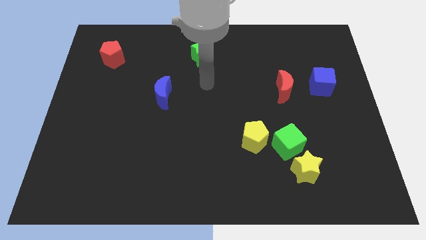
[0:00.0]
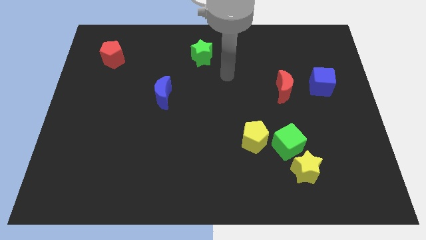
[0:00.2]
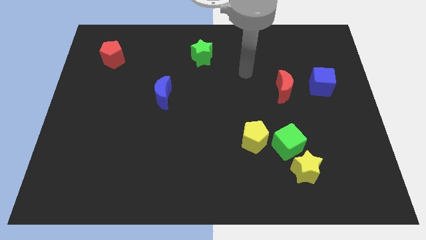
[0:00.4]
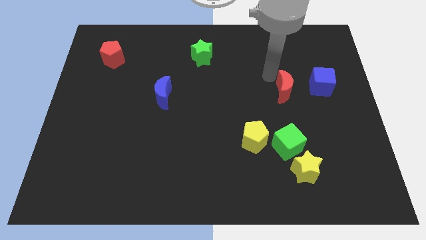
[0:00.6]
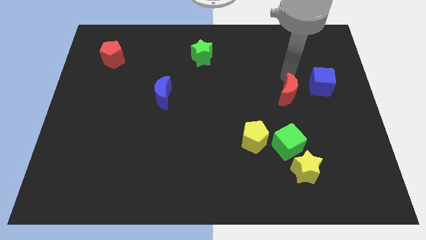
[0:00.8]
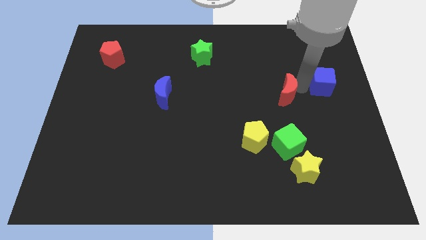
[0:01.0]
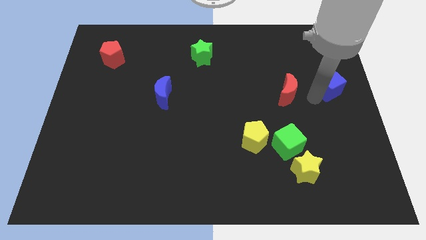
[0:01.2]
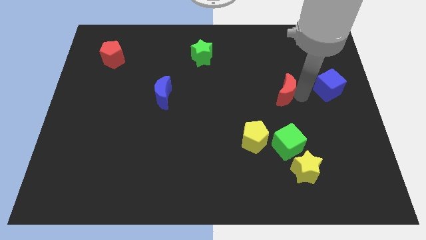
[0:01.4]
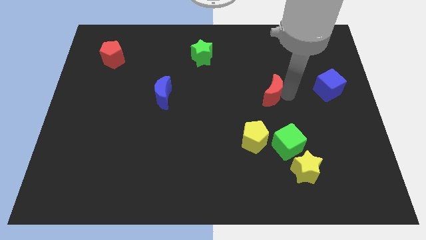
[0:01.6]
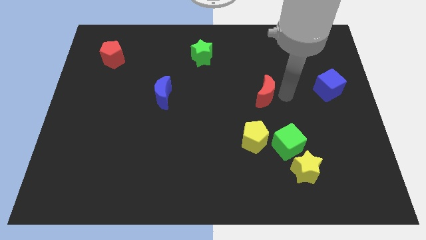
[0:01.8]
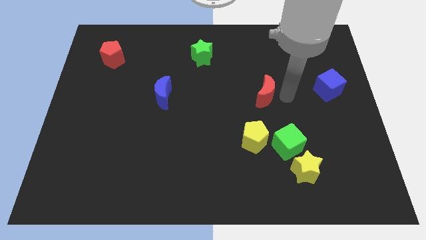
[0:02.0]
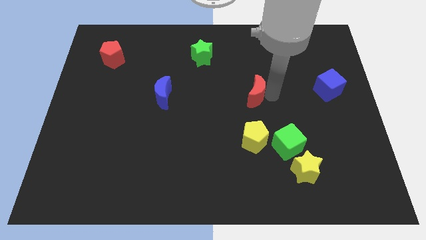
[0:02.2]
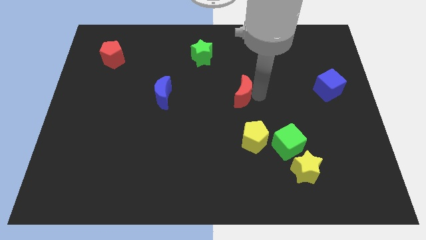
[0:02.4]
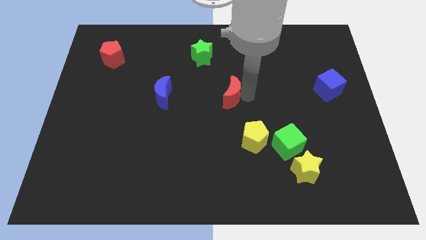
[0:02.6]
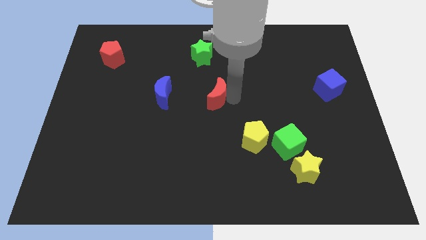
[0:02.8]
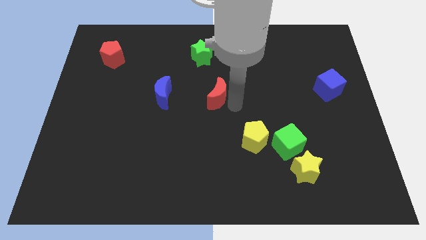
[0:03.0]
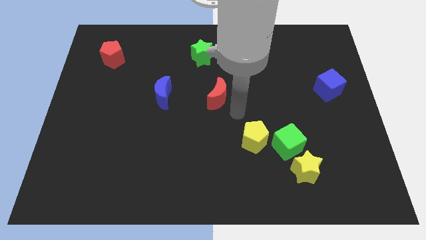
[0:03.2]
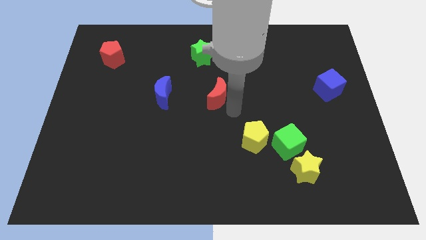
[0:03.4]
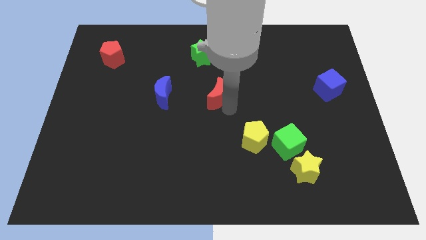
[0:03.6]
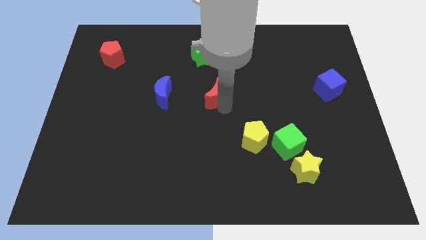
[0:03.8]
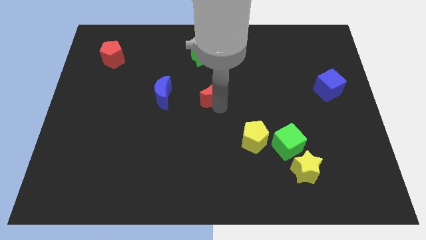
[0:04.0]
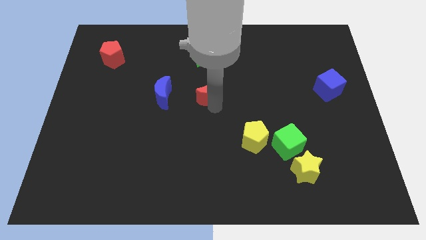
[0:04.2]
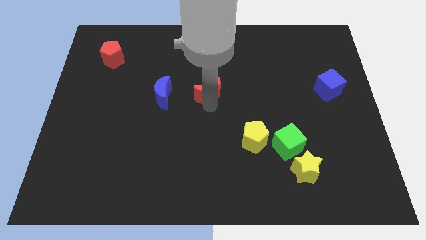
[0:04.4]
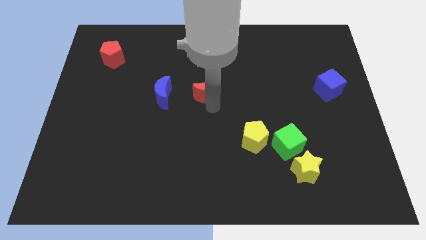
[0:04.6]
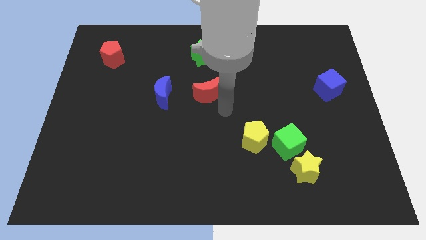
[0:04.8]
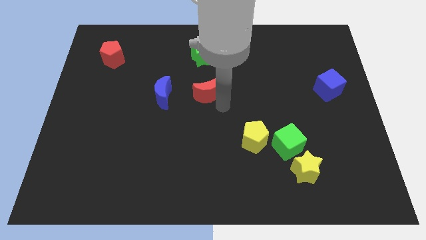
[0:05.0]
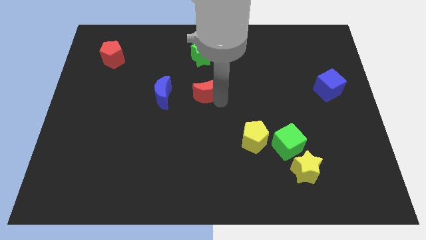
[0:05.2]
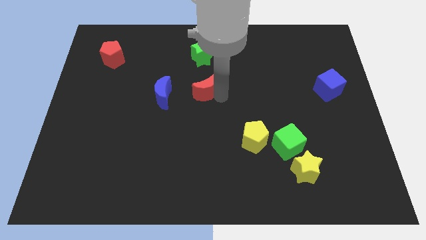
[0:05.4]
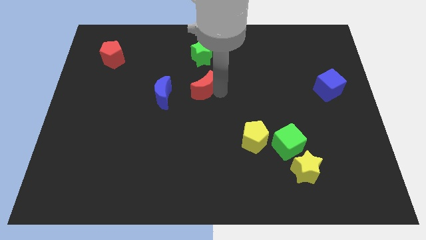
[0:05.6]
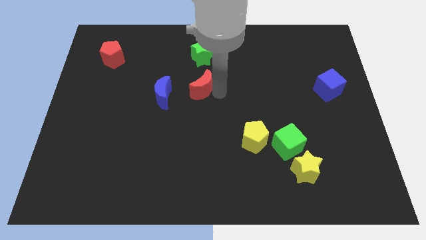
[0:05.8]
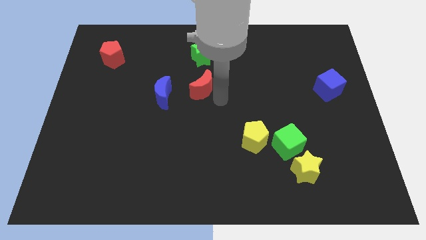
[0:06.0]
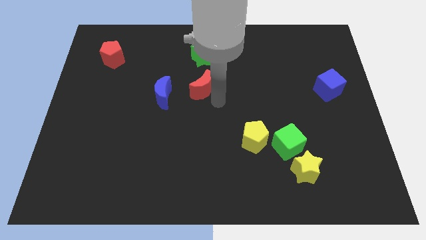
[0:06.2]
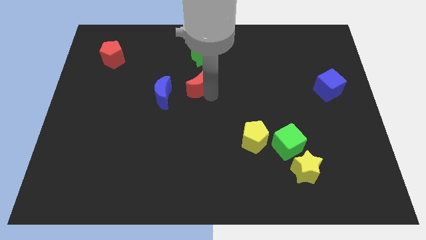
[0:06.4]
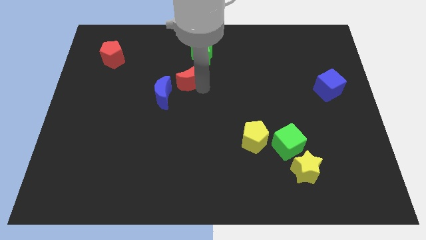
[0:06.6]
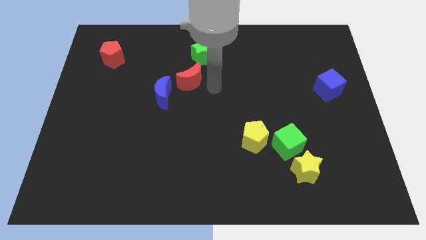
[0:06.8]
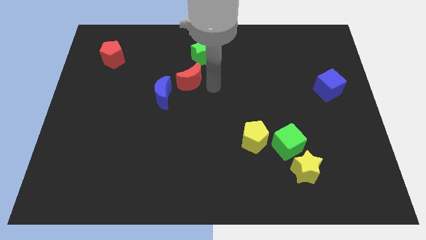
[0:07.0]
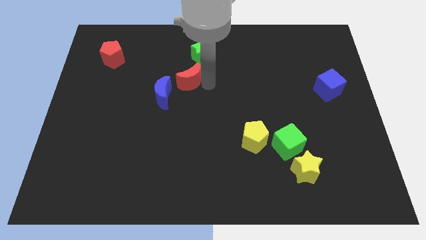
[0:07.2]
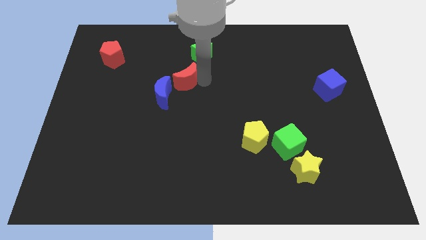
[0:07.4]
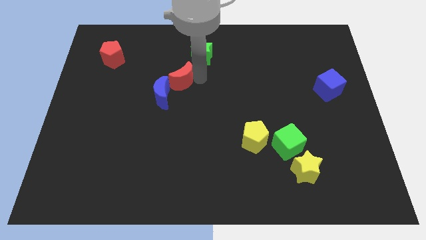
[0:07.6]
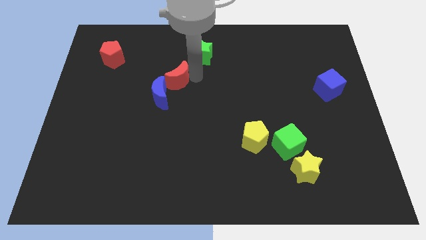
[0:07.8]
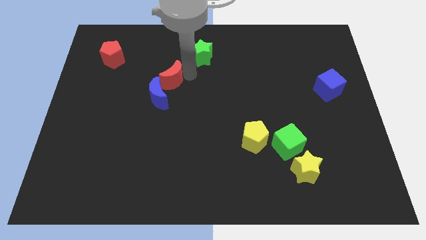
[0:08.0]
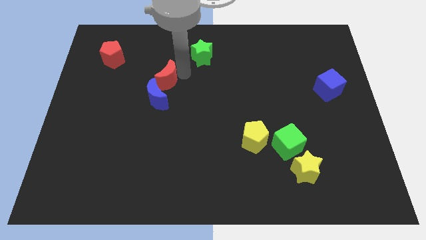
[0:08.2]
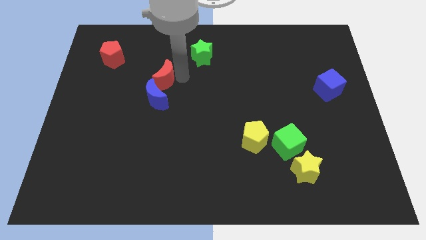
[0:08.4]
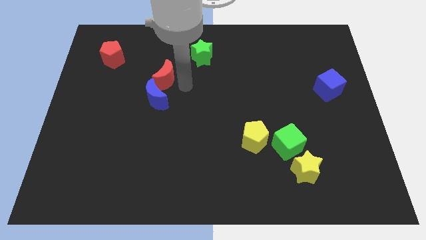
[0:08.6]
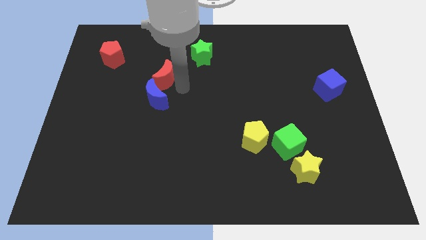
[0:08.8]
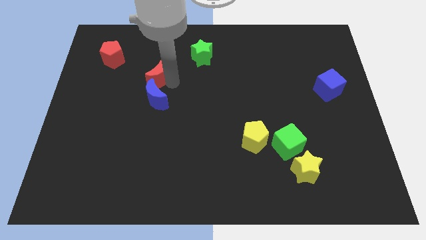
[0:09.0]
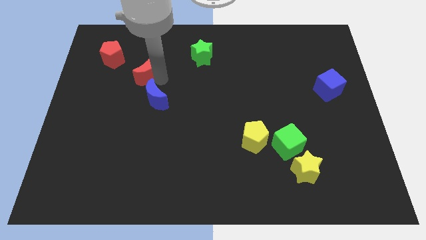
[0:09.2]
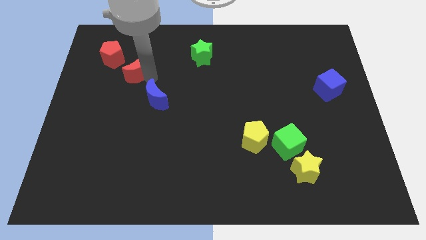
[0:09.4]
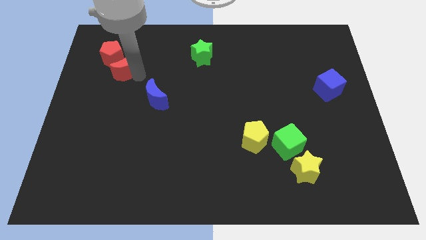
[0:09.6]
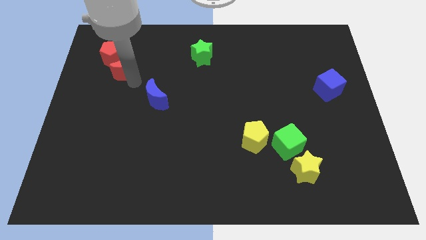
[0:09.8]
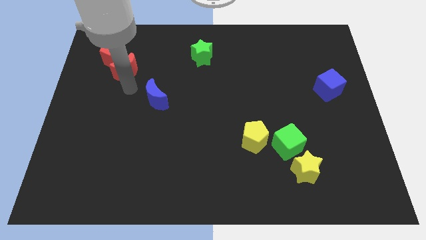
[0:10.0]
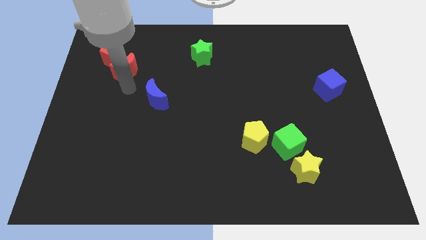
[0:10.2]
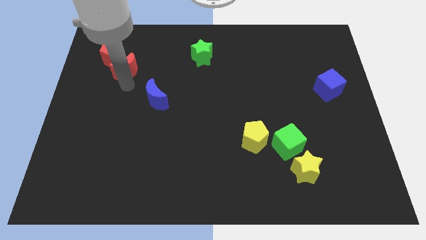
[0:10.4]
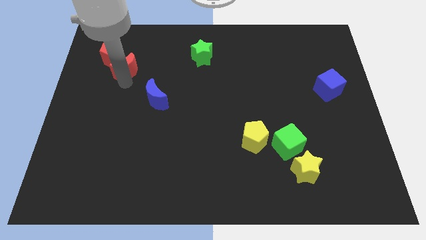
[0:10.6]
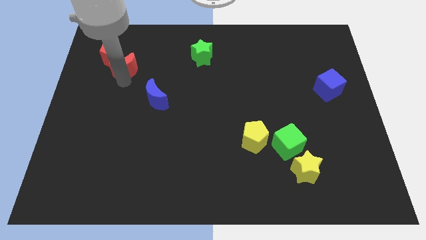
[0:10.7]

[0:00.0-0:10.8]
slide the red moon close to the red pentagon

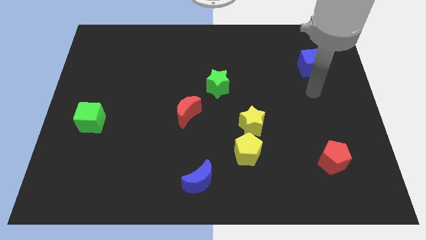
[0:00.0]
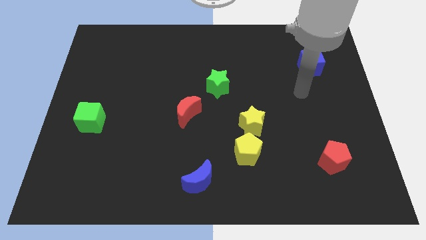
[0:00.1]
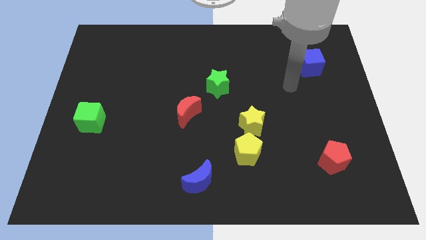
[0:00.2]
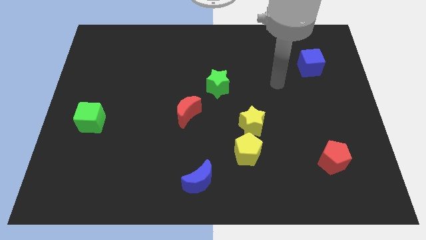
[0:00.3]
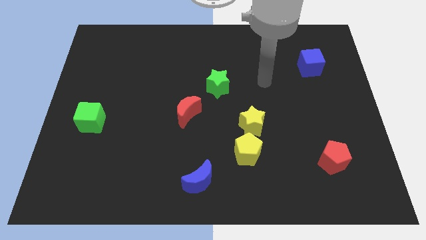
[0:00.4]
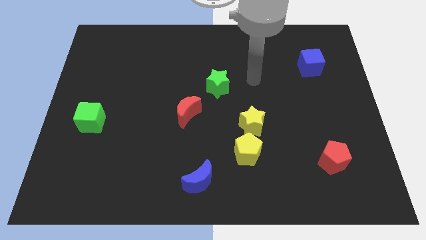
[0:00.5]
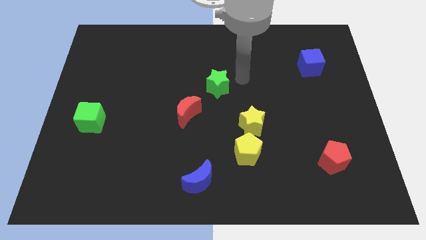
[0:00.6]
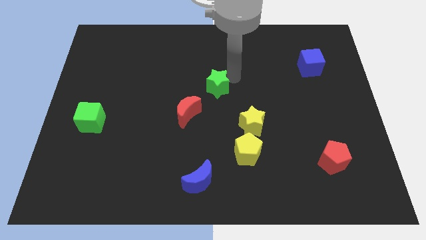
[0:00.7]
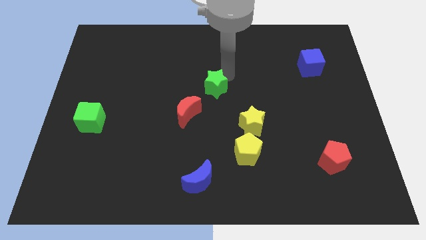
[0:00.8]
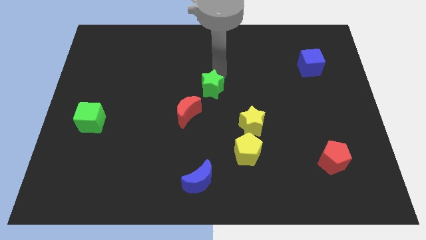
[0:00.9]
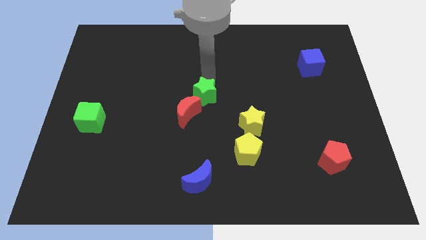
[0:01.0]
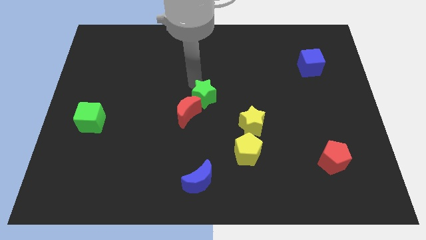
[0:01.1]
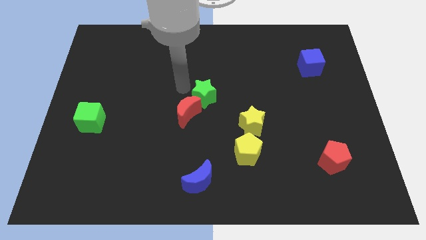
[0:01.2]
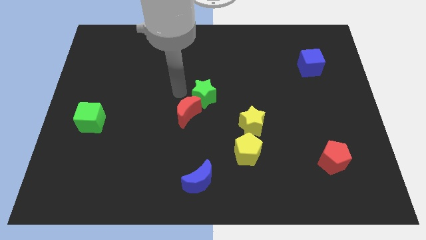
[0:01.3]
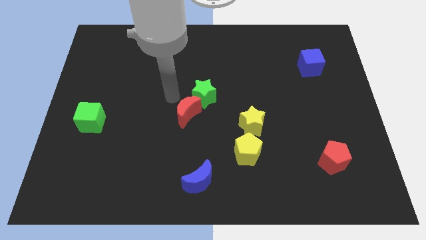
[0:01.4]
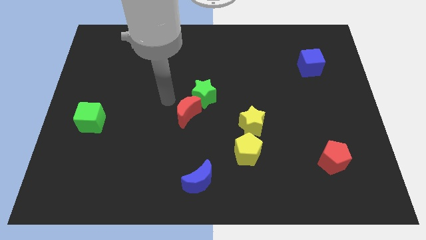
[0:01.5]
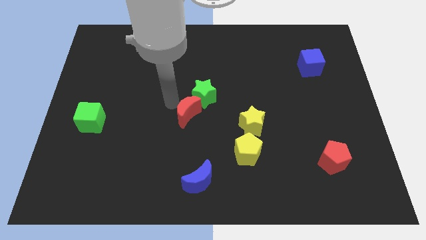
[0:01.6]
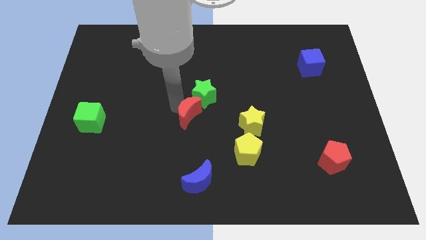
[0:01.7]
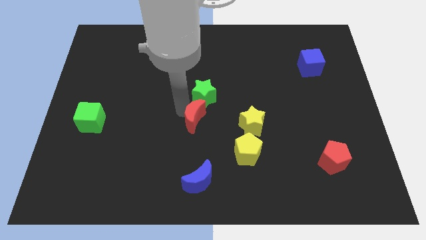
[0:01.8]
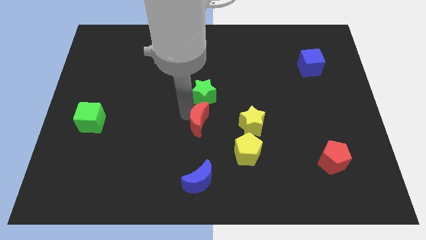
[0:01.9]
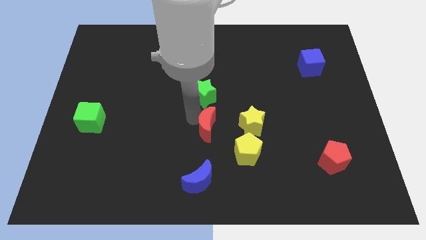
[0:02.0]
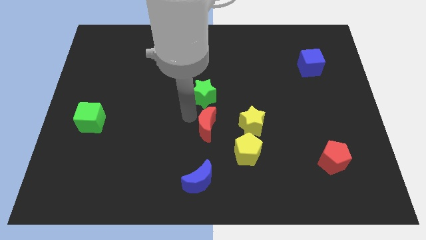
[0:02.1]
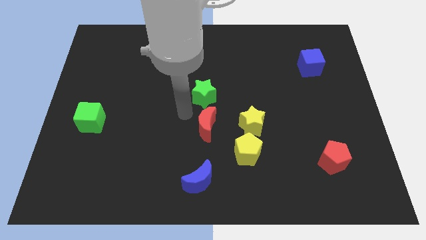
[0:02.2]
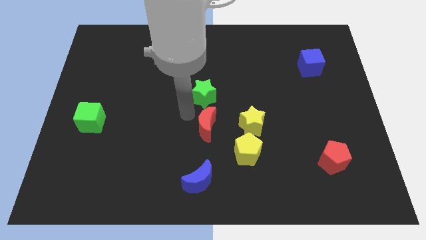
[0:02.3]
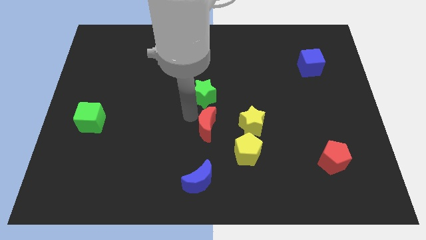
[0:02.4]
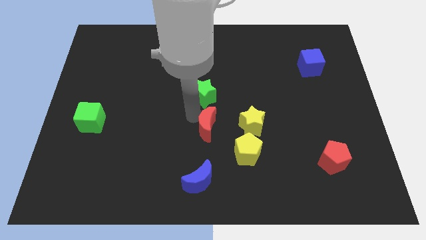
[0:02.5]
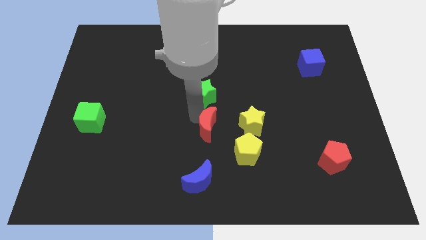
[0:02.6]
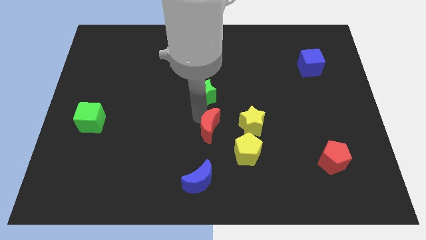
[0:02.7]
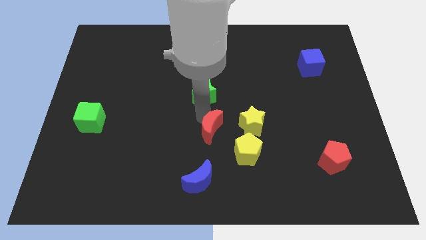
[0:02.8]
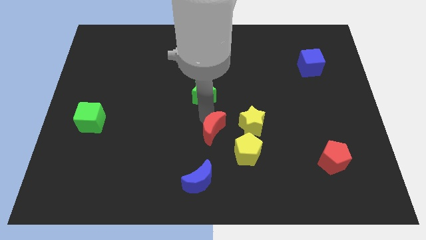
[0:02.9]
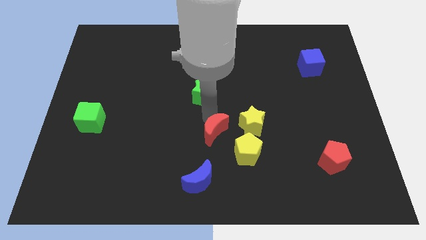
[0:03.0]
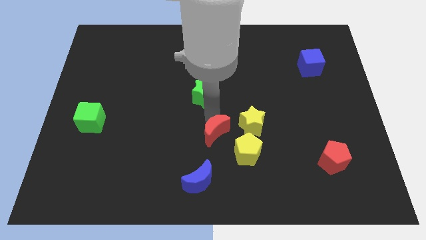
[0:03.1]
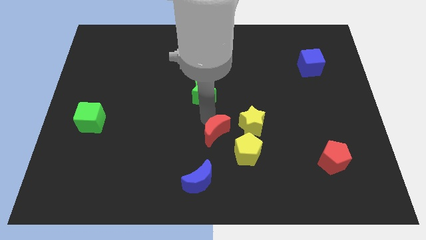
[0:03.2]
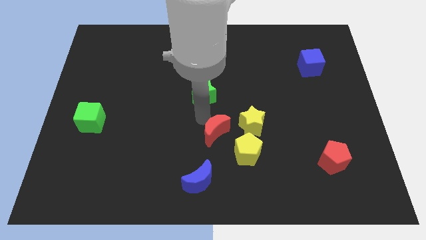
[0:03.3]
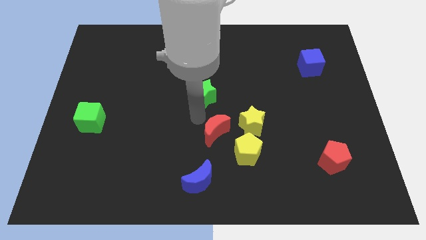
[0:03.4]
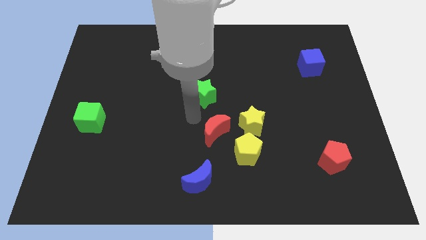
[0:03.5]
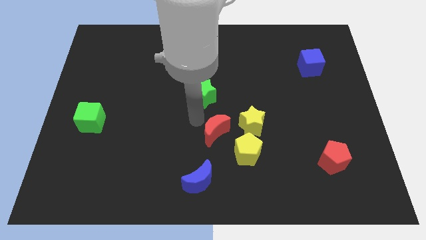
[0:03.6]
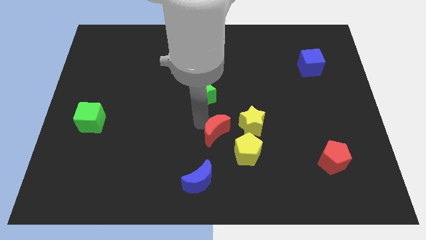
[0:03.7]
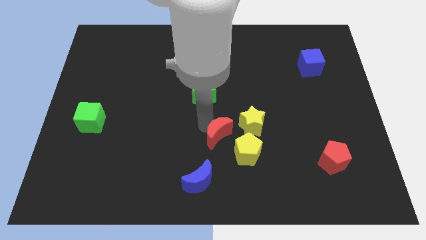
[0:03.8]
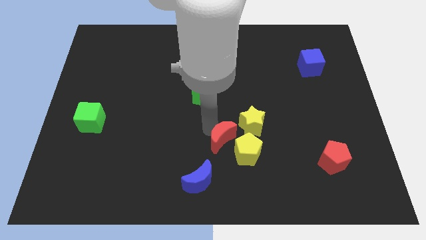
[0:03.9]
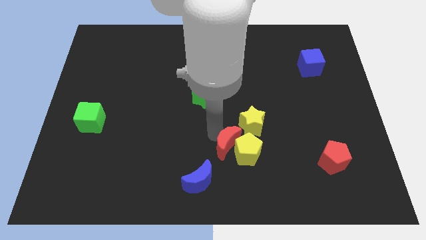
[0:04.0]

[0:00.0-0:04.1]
slide the red moon towards the yellow pentagon
